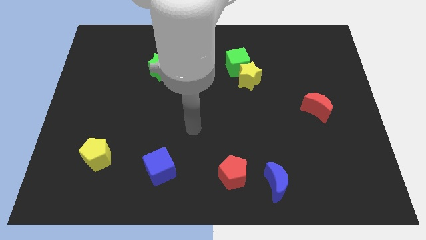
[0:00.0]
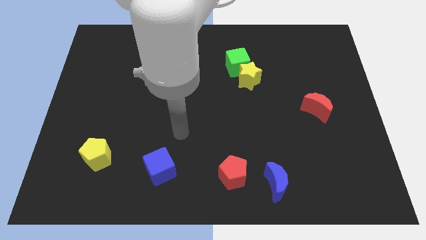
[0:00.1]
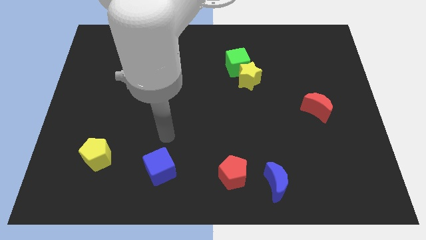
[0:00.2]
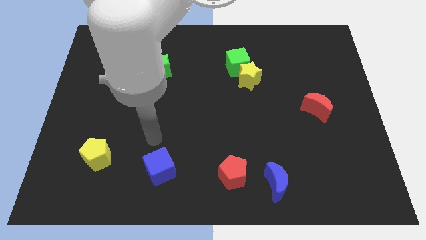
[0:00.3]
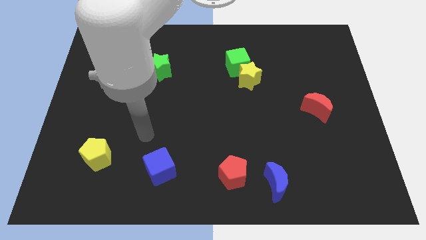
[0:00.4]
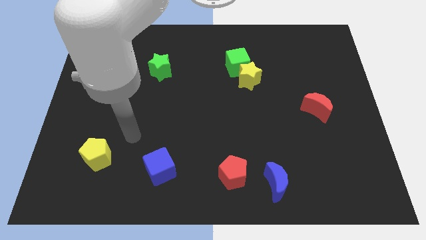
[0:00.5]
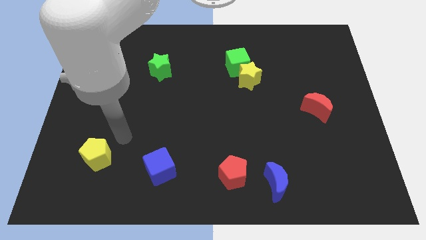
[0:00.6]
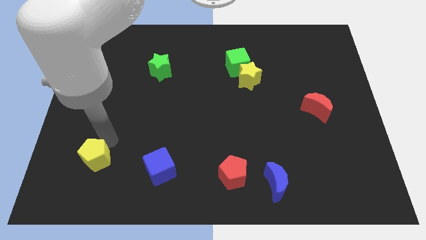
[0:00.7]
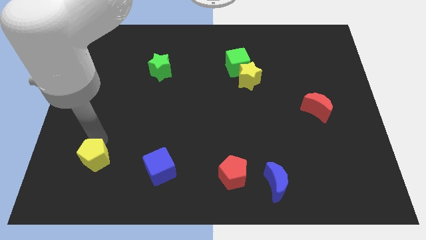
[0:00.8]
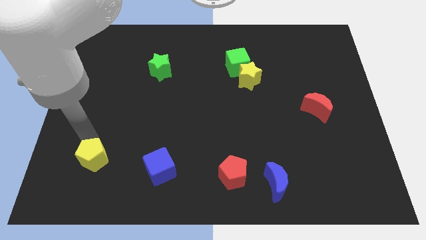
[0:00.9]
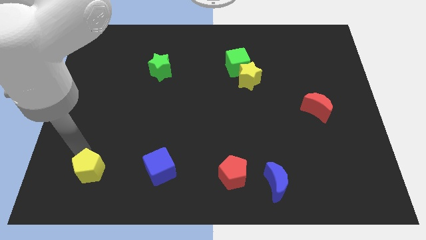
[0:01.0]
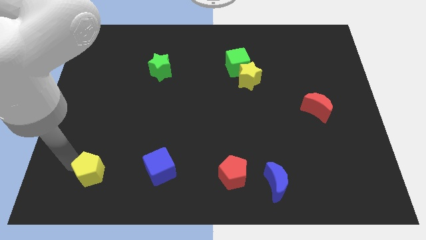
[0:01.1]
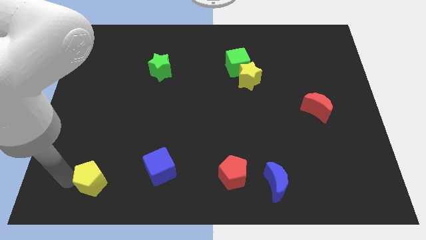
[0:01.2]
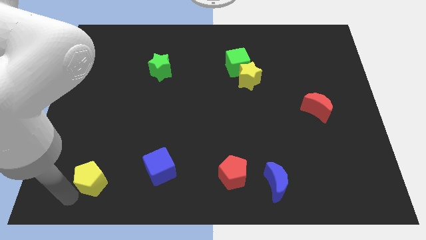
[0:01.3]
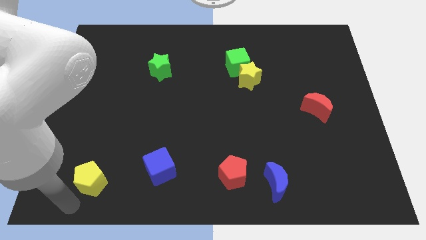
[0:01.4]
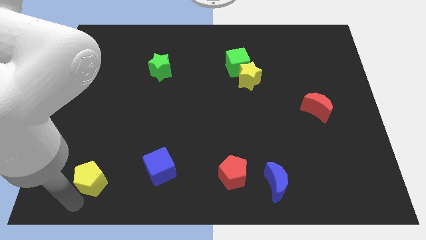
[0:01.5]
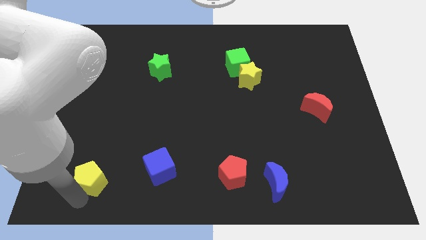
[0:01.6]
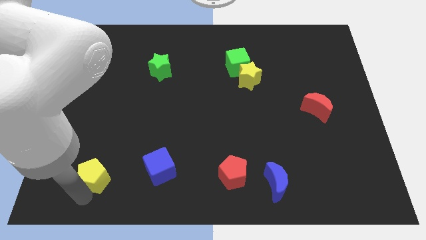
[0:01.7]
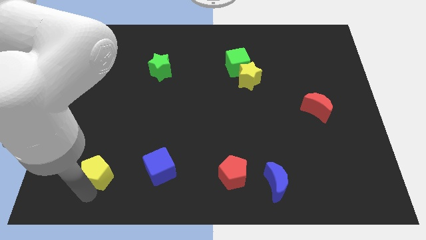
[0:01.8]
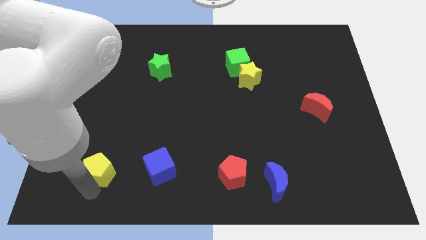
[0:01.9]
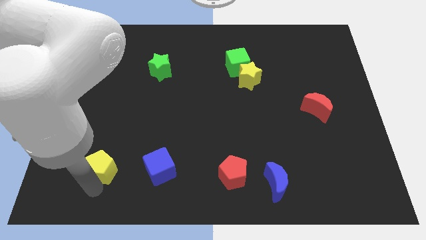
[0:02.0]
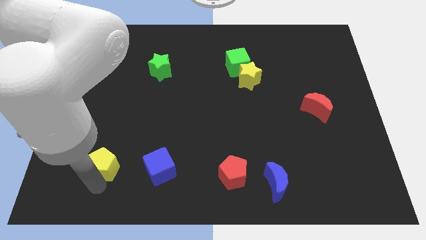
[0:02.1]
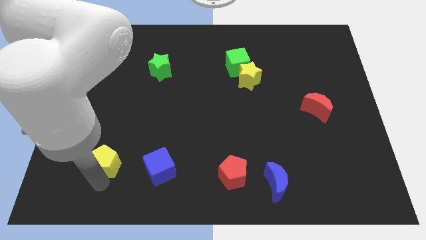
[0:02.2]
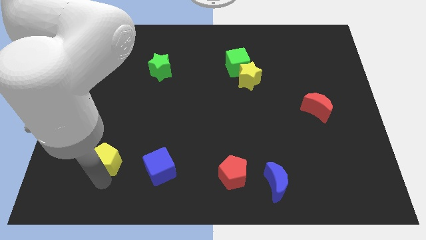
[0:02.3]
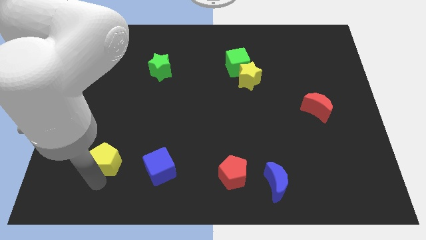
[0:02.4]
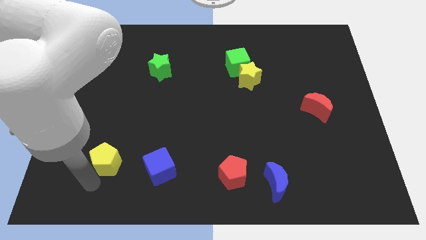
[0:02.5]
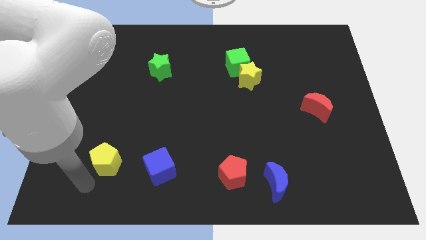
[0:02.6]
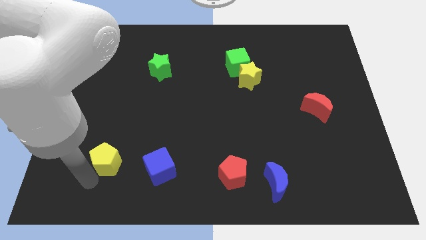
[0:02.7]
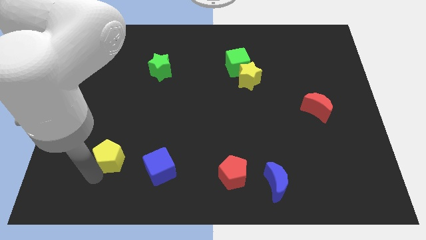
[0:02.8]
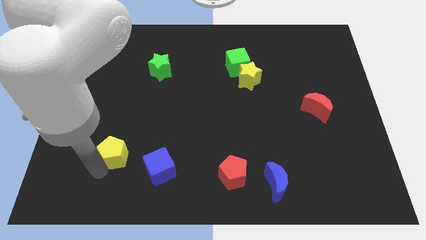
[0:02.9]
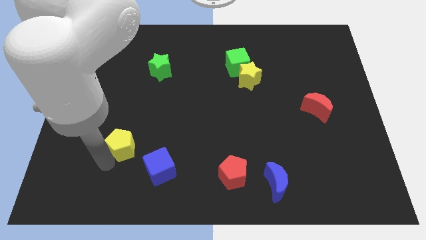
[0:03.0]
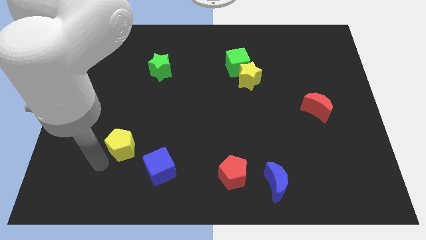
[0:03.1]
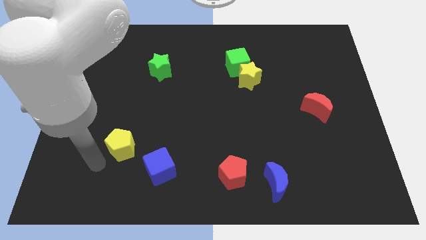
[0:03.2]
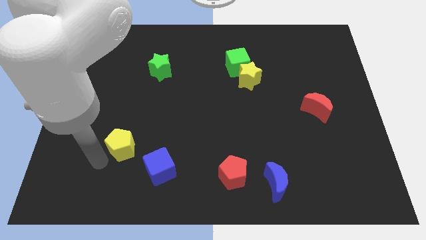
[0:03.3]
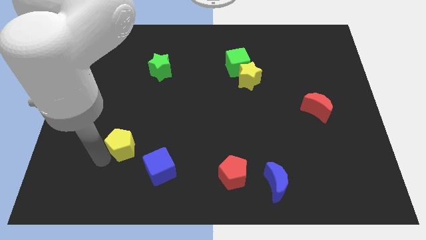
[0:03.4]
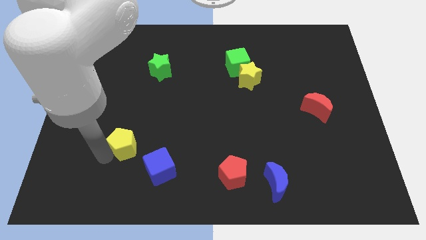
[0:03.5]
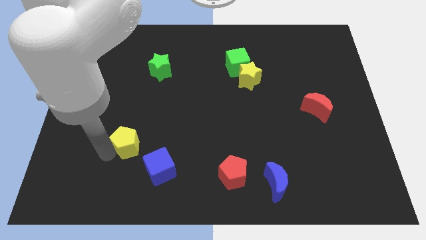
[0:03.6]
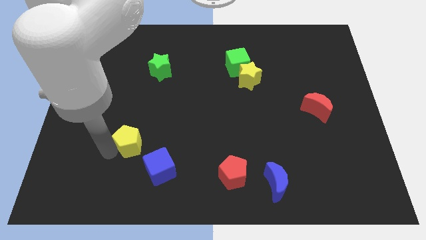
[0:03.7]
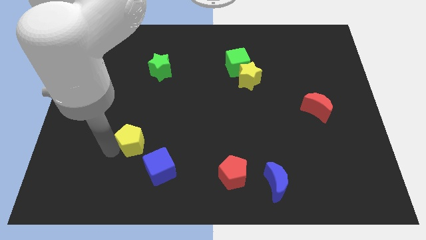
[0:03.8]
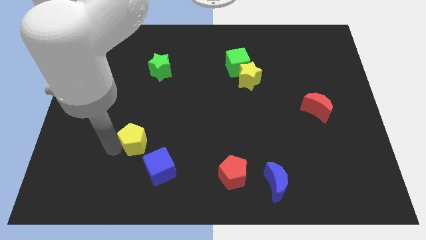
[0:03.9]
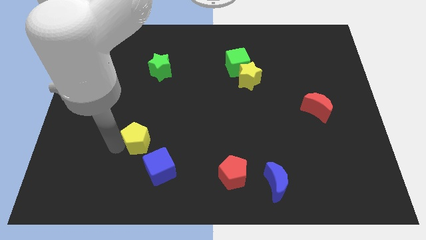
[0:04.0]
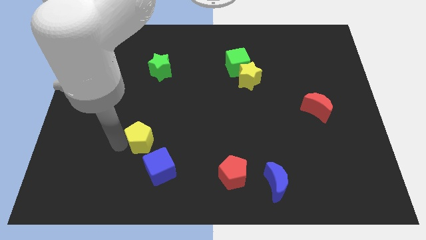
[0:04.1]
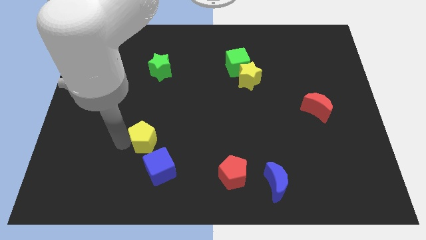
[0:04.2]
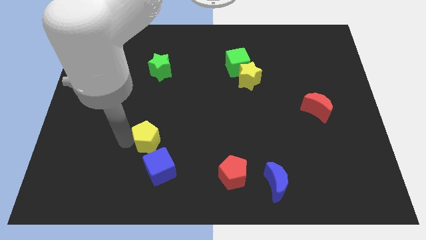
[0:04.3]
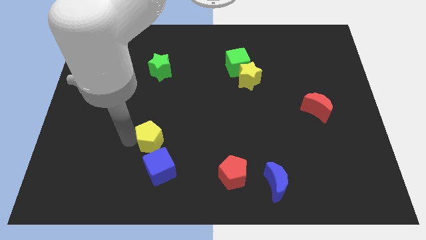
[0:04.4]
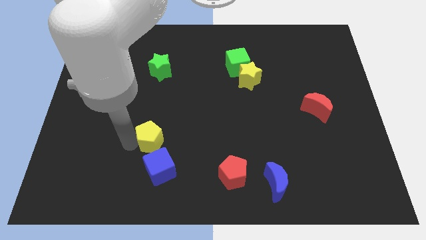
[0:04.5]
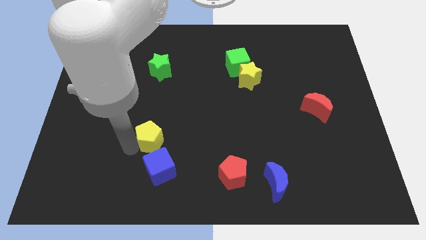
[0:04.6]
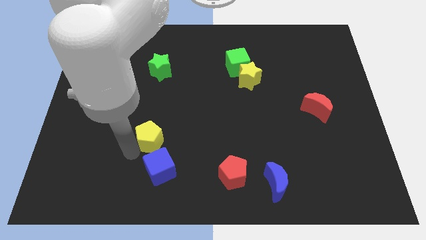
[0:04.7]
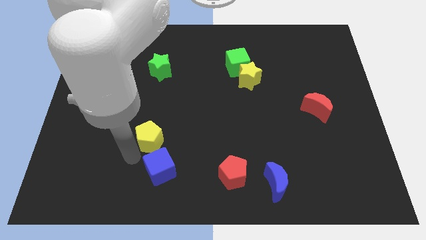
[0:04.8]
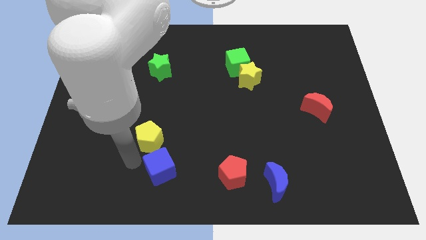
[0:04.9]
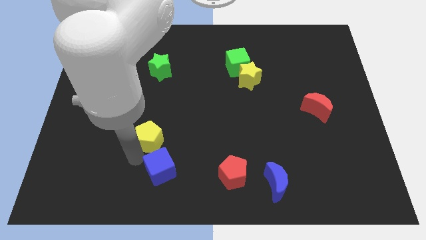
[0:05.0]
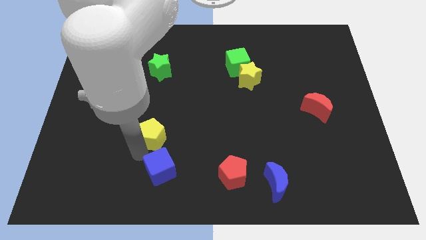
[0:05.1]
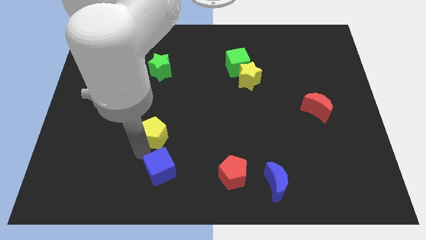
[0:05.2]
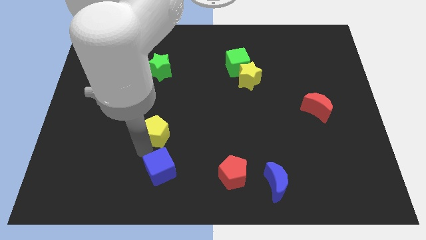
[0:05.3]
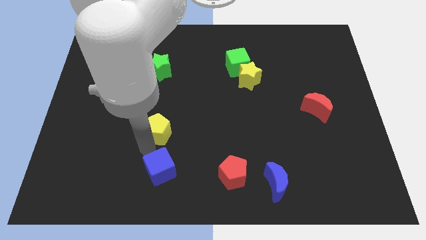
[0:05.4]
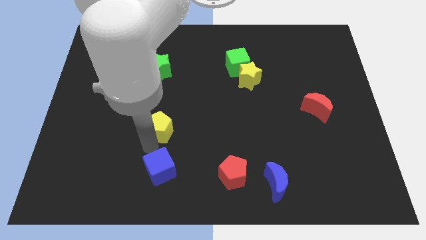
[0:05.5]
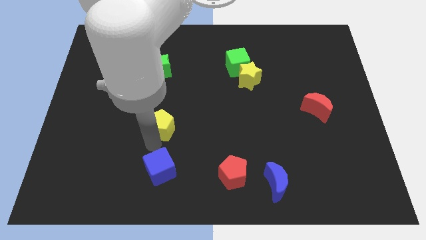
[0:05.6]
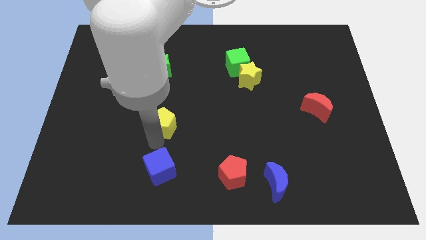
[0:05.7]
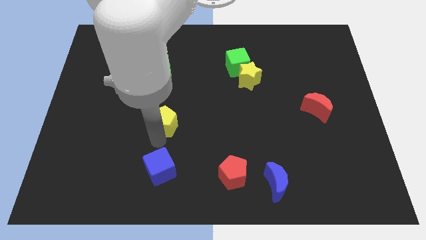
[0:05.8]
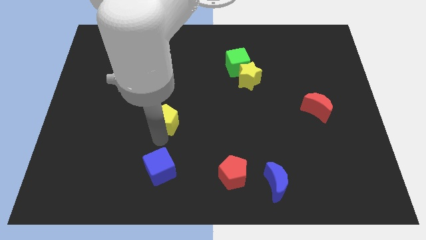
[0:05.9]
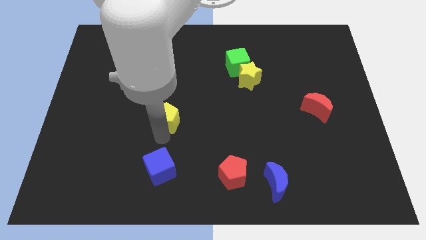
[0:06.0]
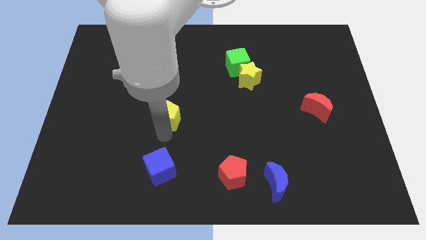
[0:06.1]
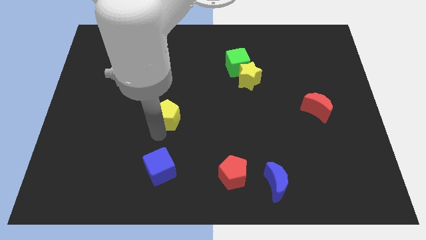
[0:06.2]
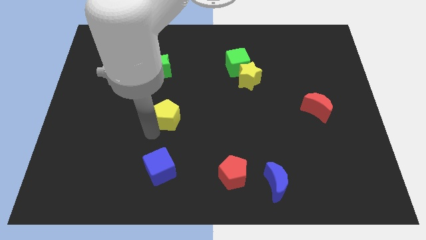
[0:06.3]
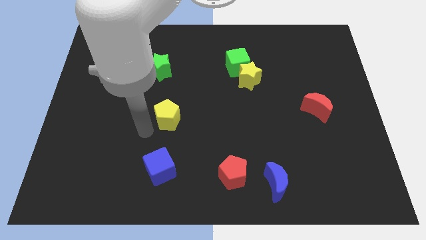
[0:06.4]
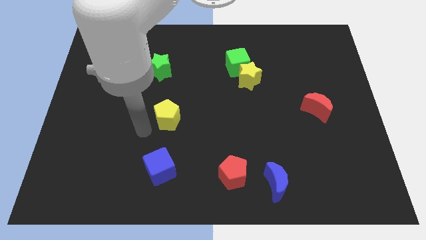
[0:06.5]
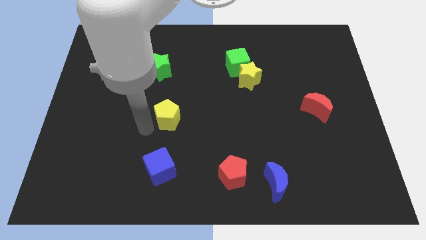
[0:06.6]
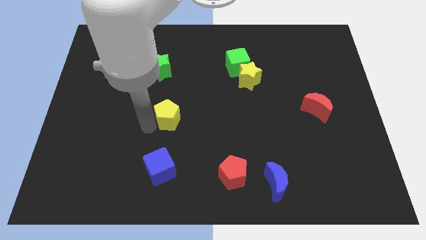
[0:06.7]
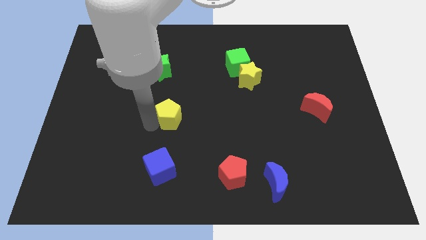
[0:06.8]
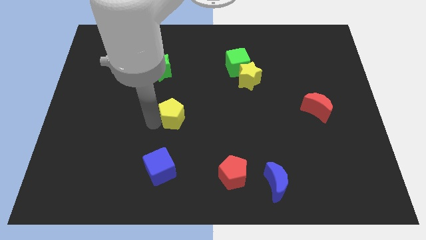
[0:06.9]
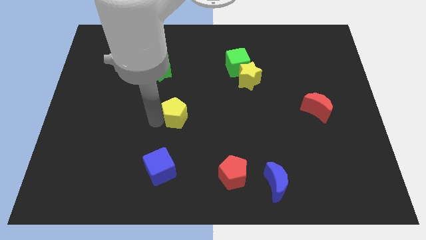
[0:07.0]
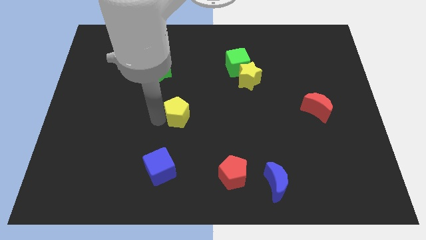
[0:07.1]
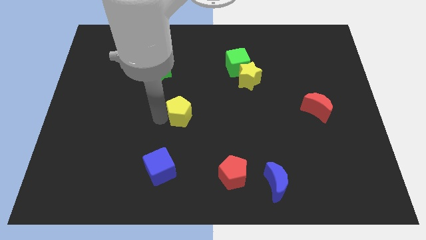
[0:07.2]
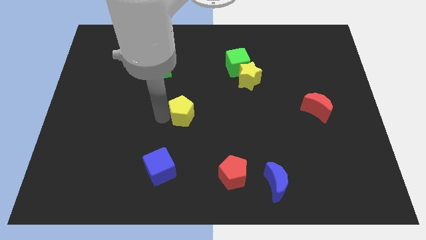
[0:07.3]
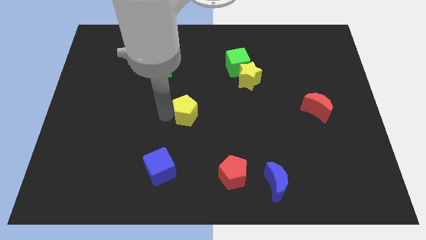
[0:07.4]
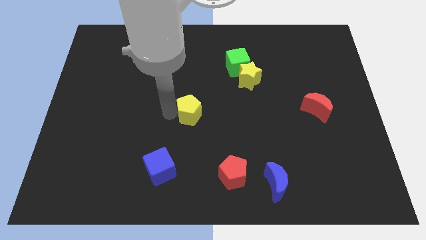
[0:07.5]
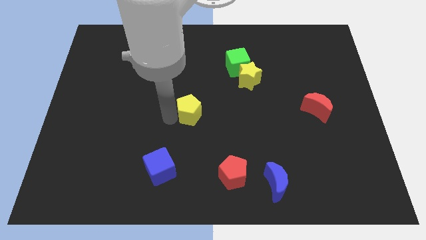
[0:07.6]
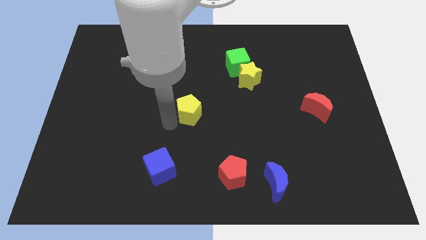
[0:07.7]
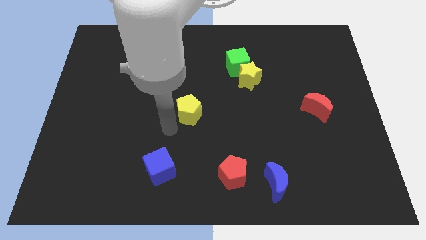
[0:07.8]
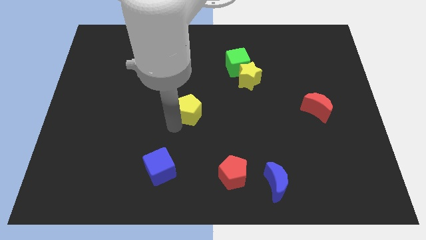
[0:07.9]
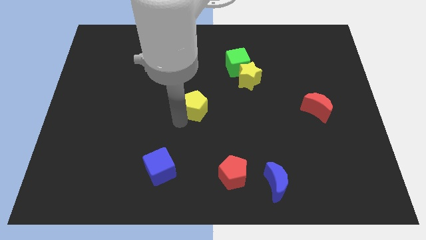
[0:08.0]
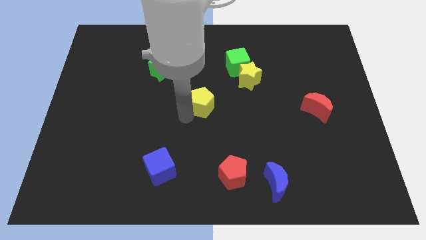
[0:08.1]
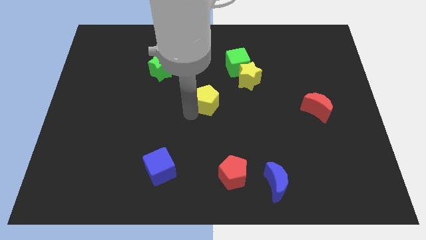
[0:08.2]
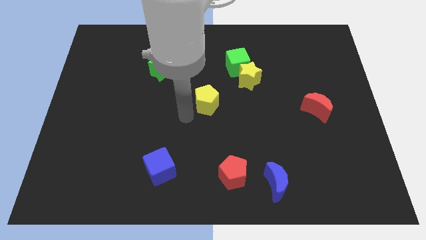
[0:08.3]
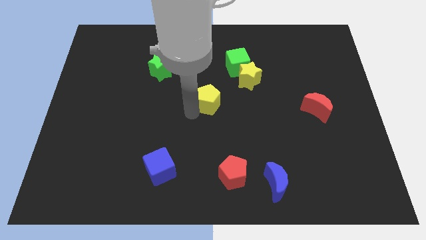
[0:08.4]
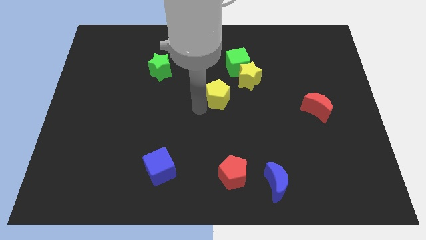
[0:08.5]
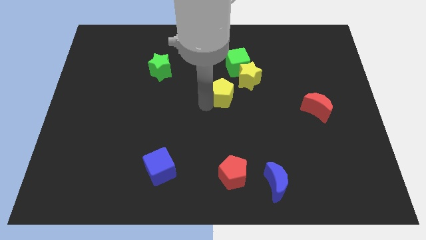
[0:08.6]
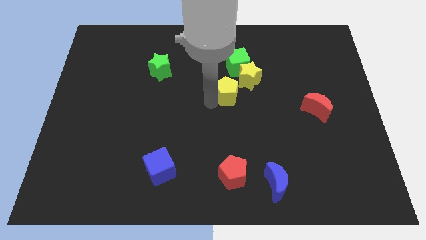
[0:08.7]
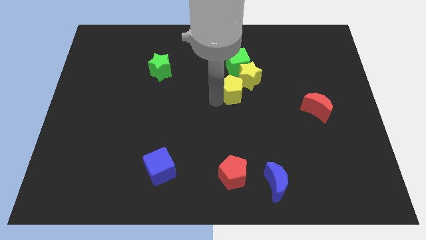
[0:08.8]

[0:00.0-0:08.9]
put the yellow pentagon to the yellow star
